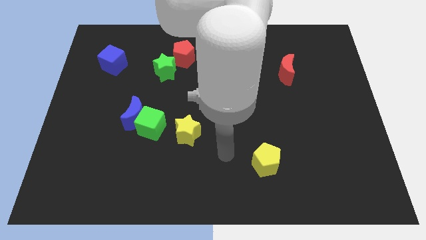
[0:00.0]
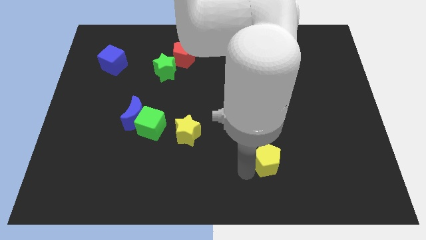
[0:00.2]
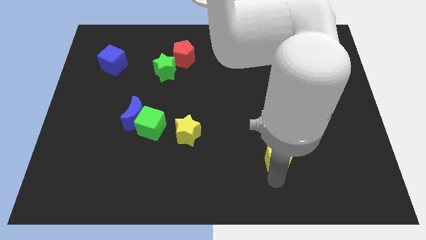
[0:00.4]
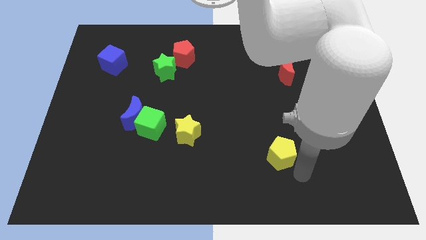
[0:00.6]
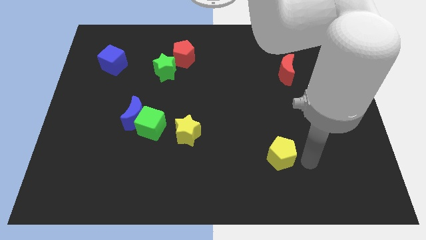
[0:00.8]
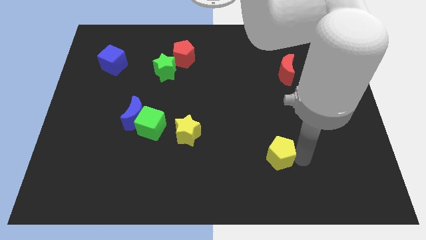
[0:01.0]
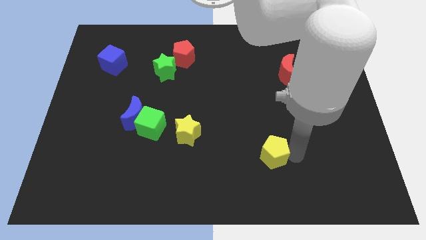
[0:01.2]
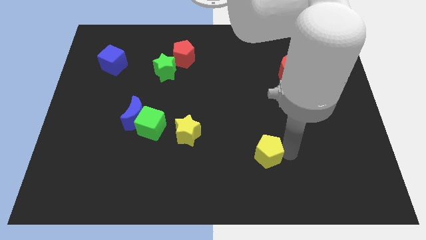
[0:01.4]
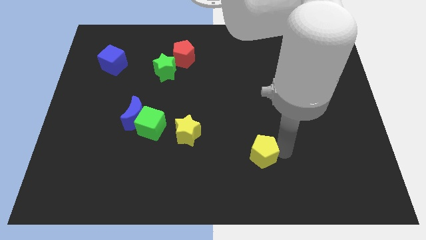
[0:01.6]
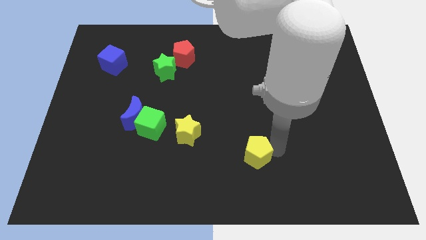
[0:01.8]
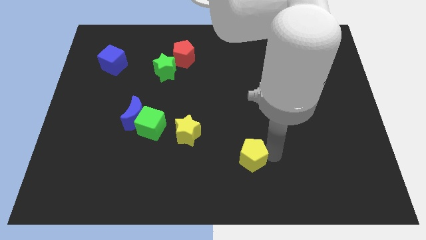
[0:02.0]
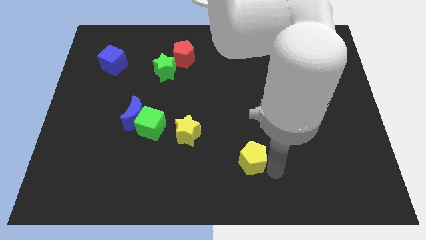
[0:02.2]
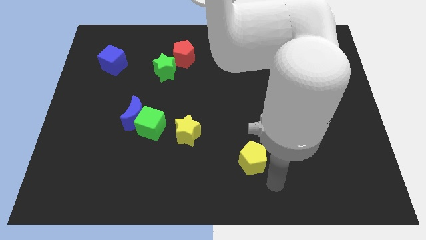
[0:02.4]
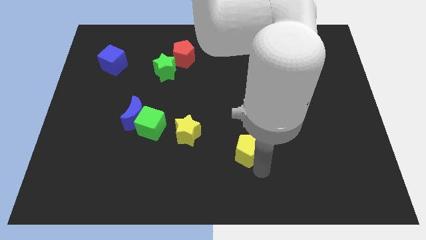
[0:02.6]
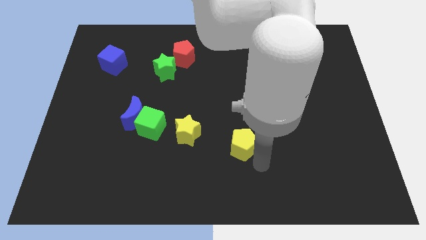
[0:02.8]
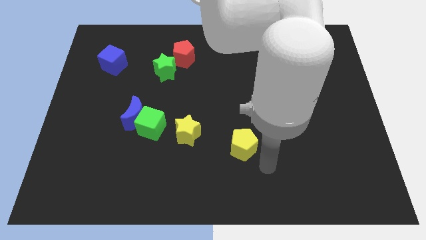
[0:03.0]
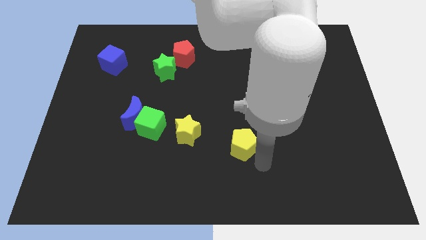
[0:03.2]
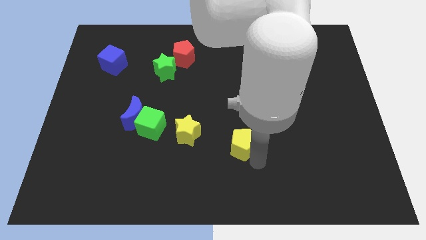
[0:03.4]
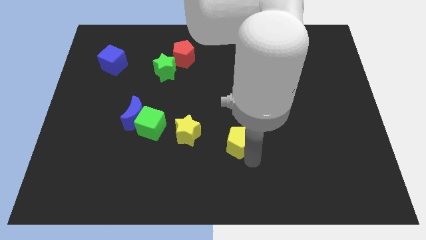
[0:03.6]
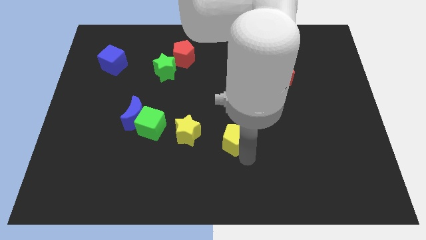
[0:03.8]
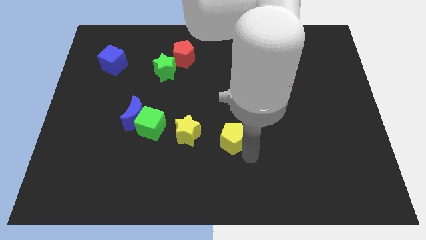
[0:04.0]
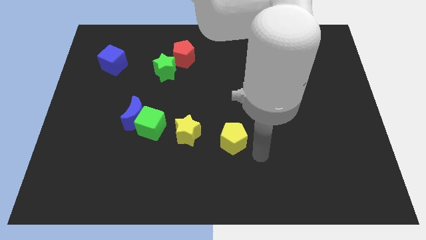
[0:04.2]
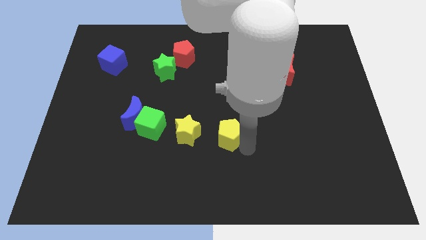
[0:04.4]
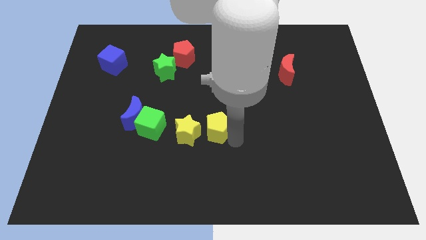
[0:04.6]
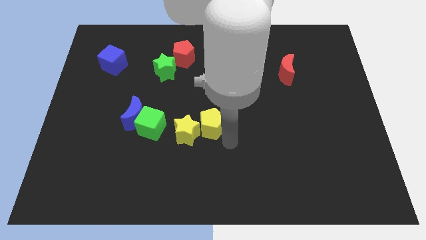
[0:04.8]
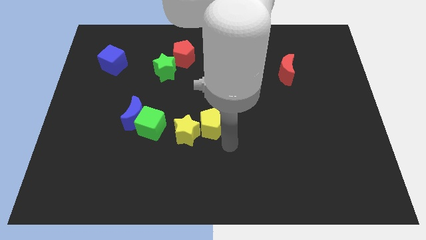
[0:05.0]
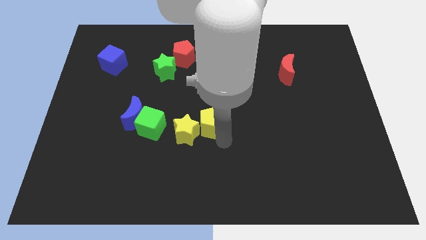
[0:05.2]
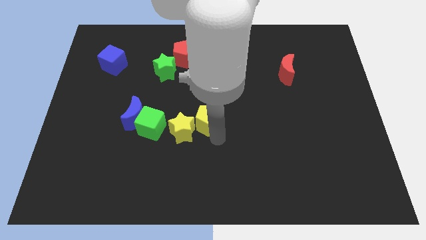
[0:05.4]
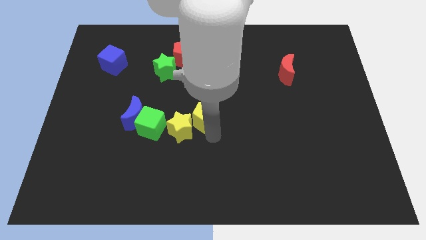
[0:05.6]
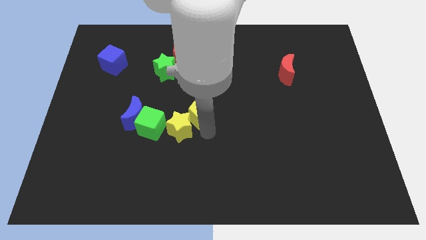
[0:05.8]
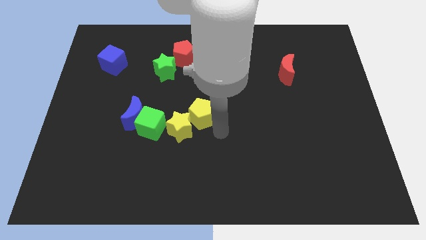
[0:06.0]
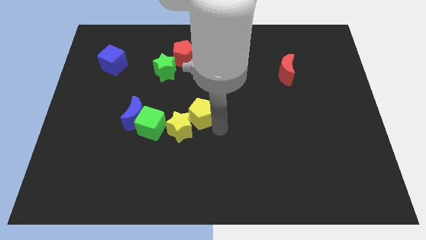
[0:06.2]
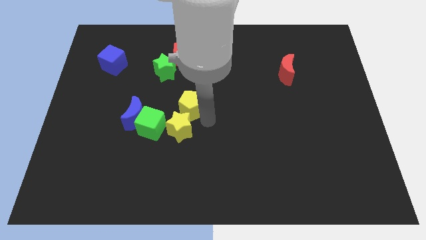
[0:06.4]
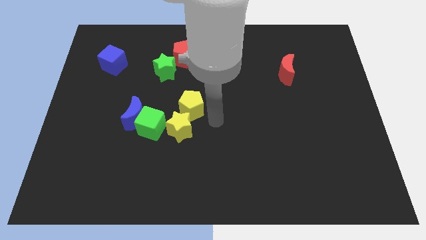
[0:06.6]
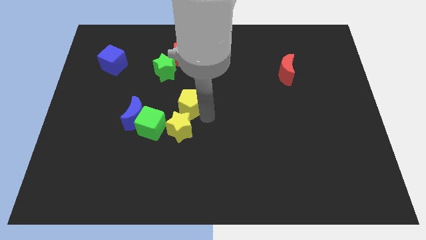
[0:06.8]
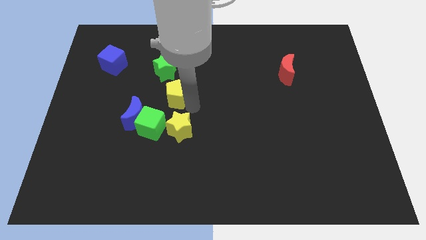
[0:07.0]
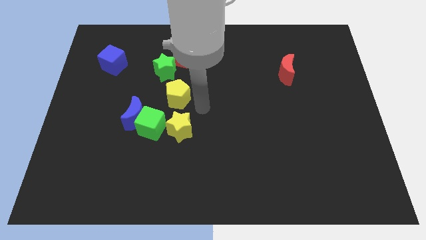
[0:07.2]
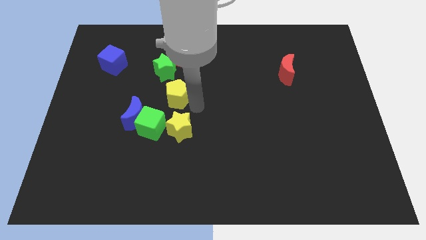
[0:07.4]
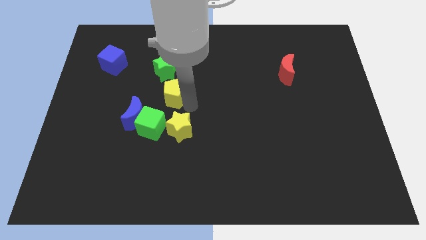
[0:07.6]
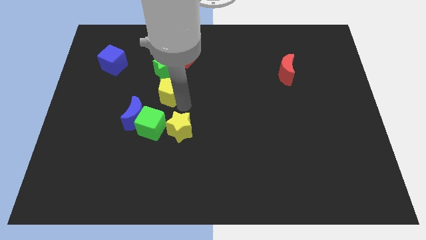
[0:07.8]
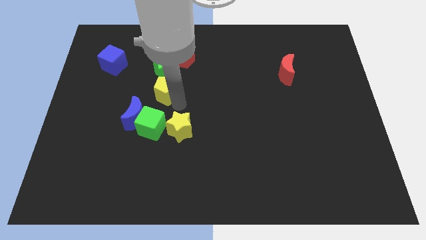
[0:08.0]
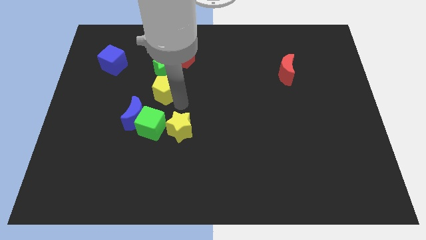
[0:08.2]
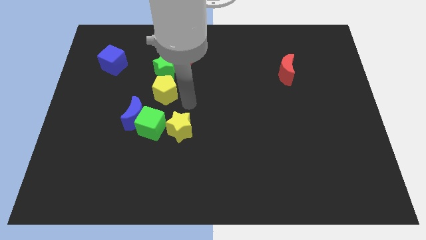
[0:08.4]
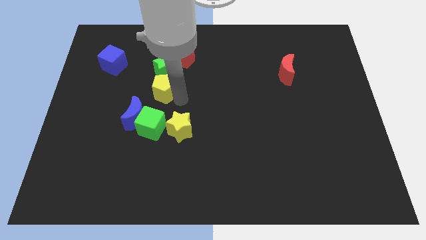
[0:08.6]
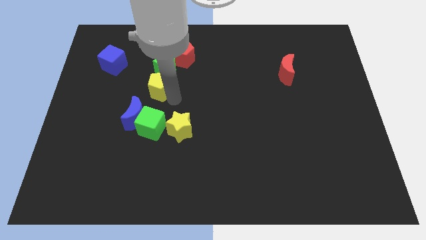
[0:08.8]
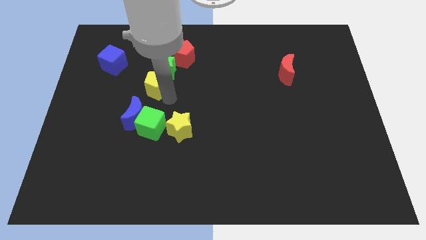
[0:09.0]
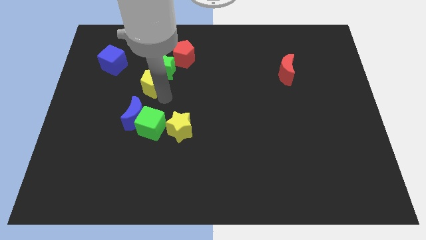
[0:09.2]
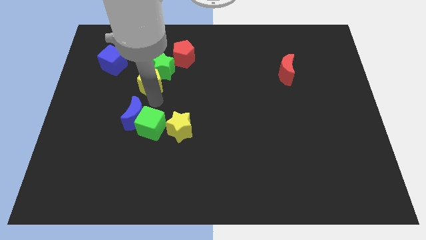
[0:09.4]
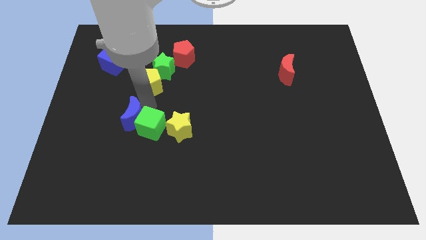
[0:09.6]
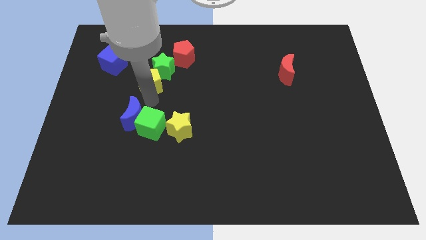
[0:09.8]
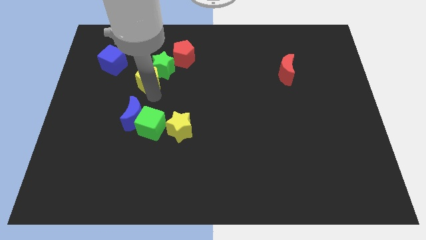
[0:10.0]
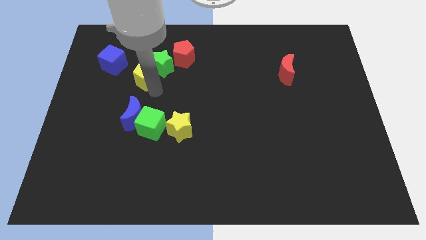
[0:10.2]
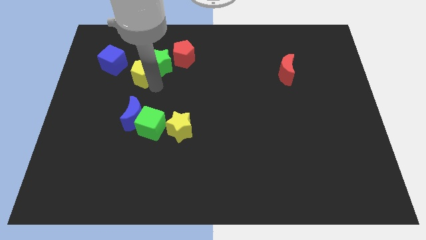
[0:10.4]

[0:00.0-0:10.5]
move the yellow pentagon to the right side of the blue cube

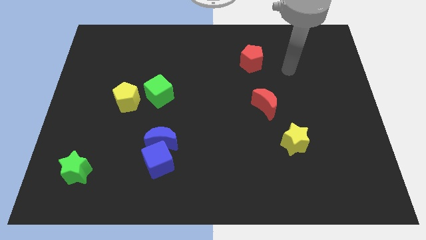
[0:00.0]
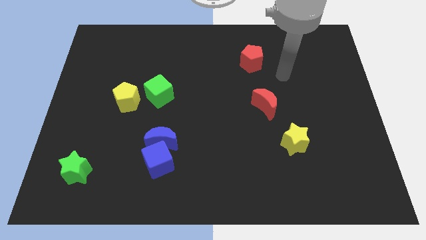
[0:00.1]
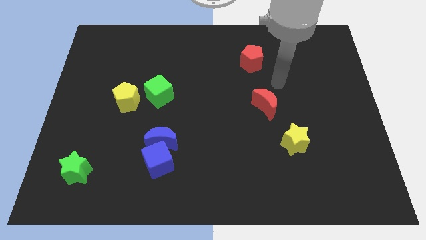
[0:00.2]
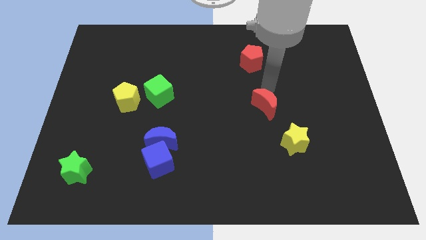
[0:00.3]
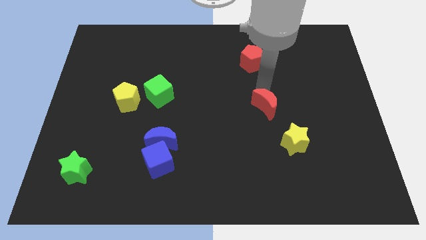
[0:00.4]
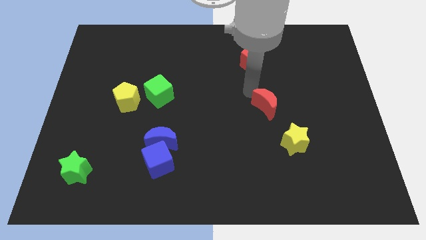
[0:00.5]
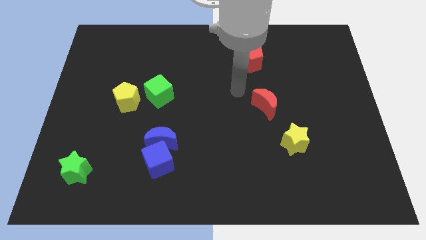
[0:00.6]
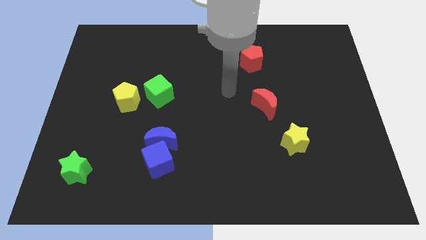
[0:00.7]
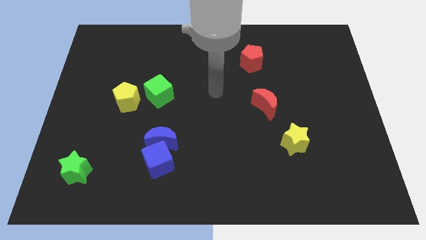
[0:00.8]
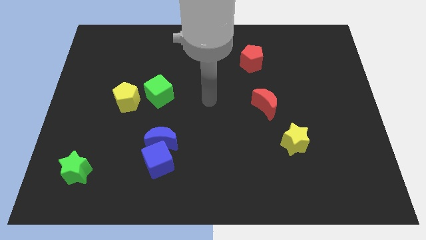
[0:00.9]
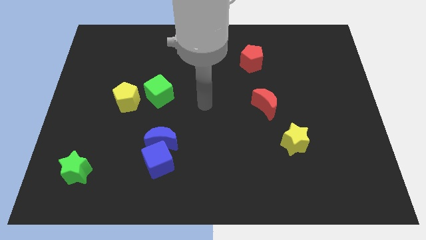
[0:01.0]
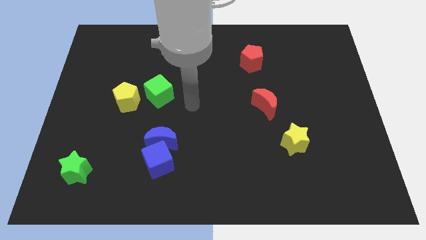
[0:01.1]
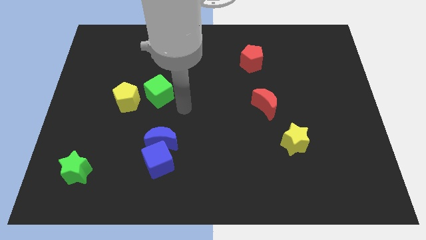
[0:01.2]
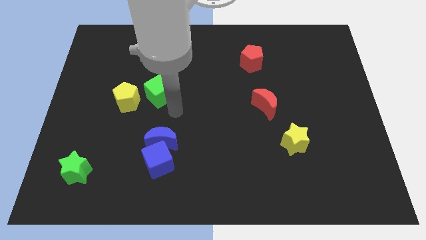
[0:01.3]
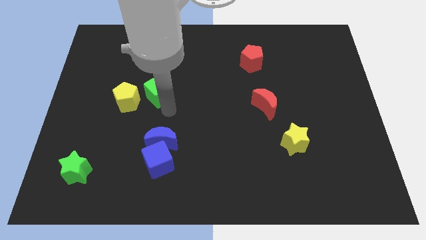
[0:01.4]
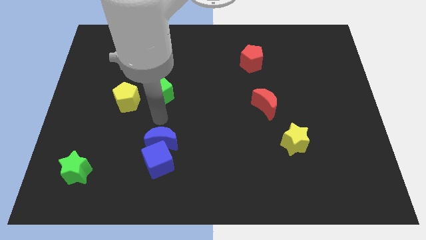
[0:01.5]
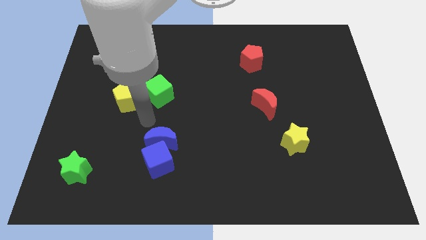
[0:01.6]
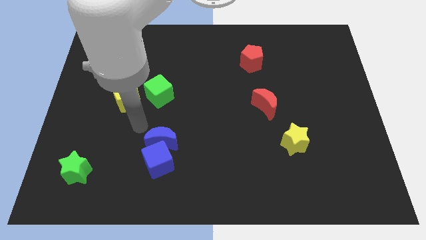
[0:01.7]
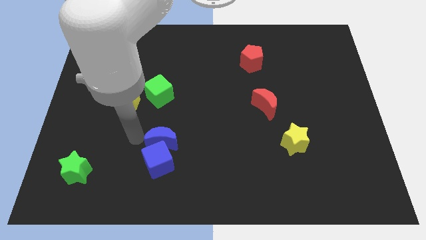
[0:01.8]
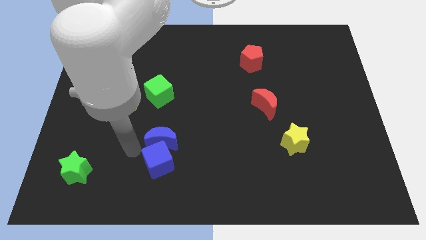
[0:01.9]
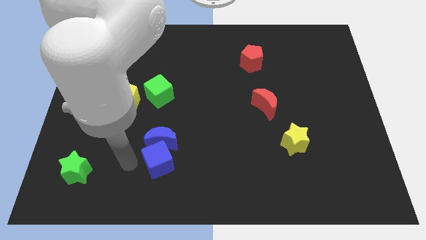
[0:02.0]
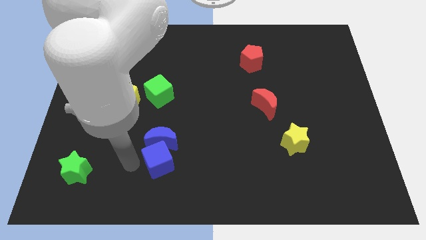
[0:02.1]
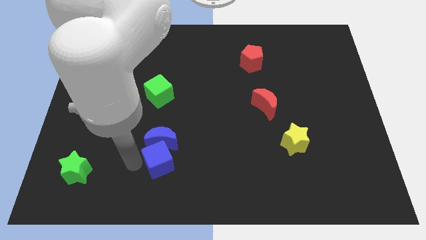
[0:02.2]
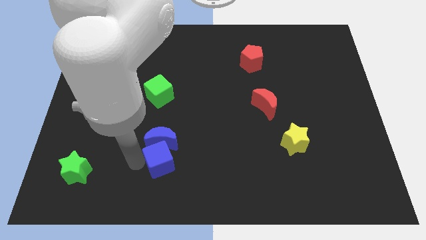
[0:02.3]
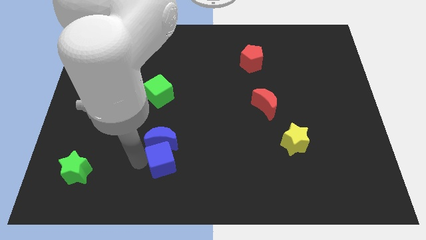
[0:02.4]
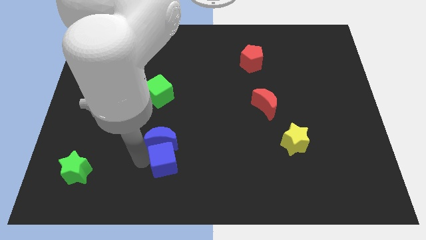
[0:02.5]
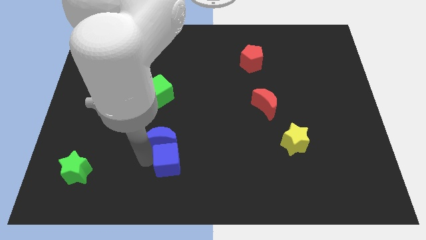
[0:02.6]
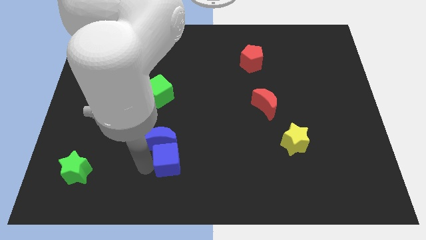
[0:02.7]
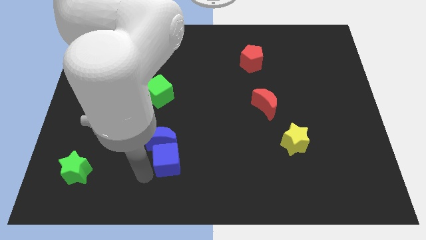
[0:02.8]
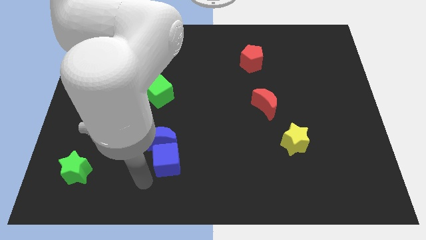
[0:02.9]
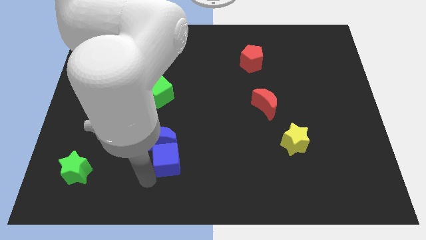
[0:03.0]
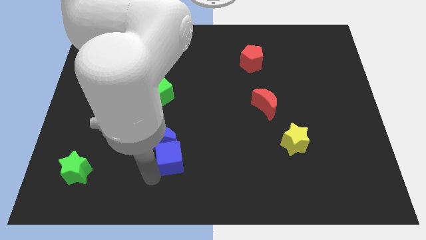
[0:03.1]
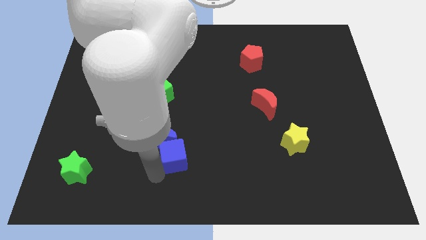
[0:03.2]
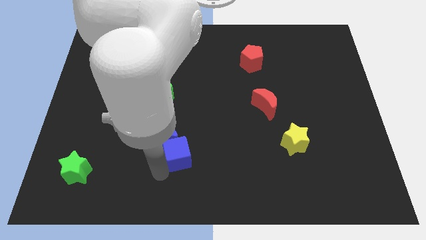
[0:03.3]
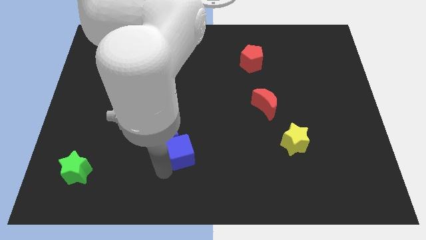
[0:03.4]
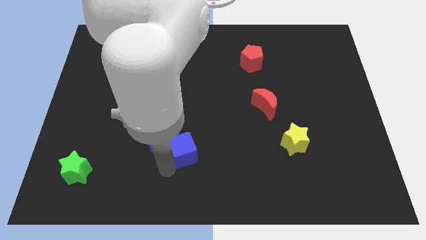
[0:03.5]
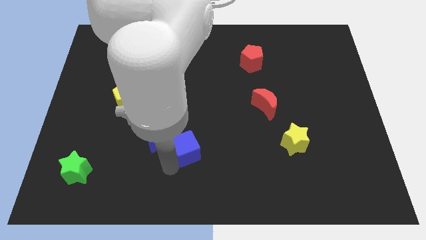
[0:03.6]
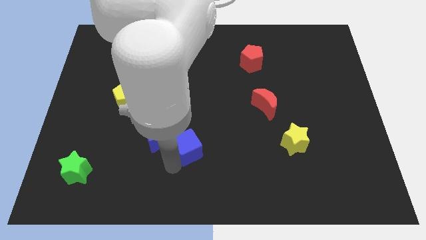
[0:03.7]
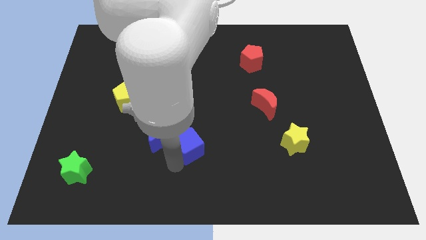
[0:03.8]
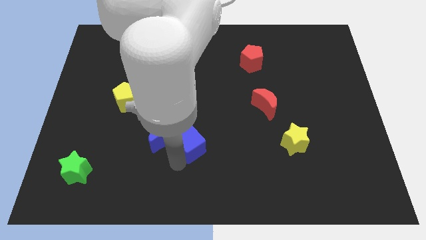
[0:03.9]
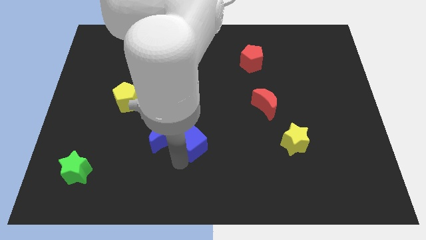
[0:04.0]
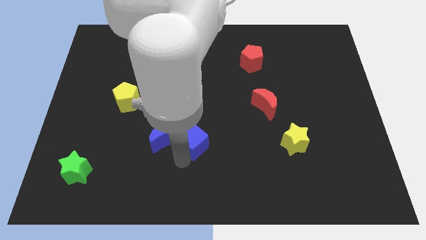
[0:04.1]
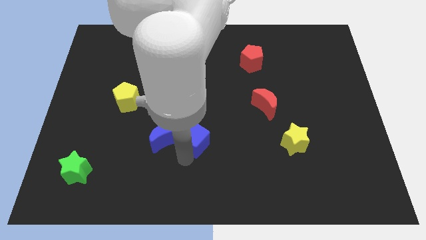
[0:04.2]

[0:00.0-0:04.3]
push the blue cube to the top right of the blue moon
